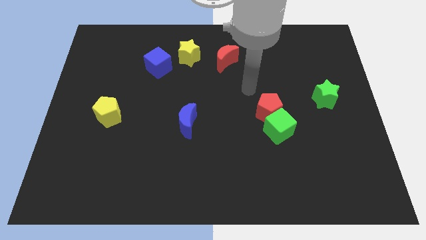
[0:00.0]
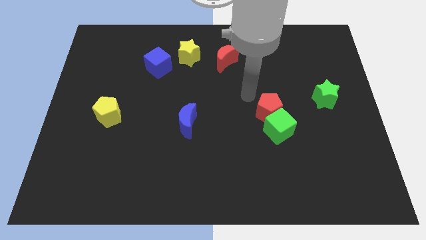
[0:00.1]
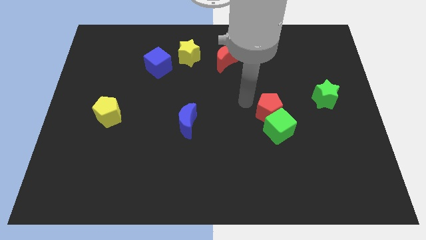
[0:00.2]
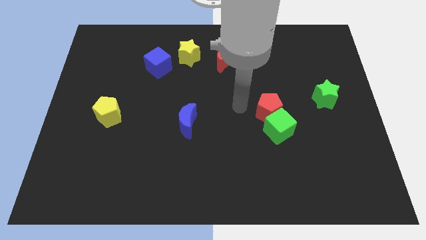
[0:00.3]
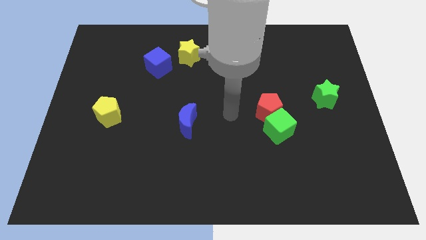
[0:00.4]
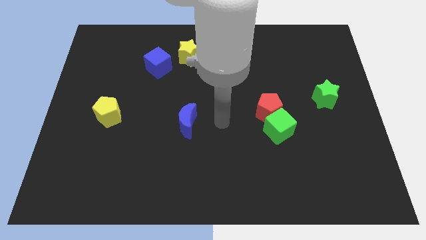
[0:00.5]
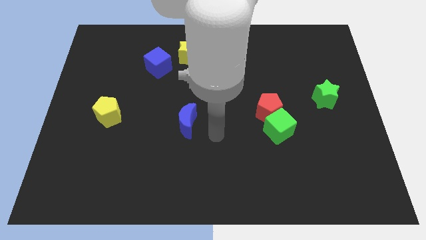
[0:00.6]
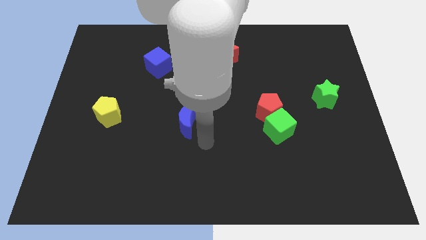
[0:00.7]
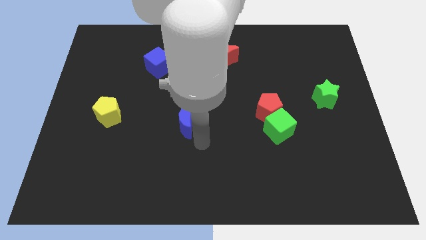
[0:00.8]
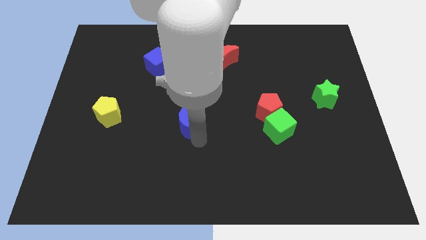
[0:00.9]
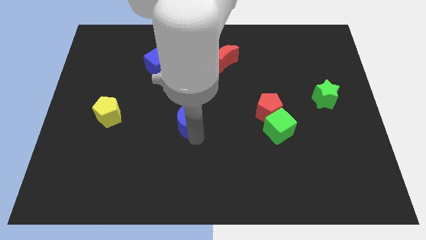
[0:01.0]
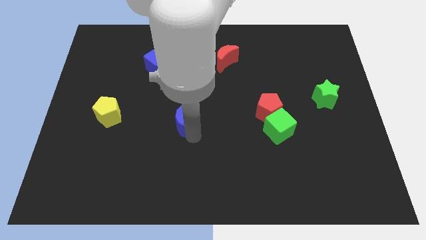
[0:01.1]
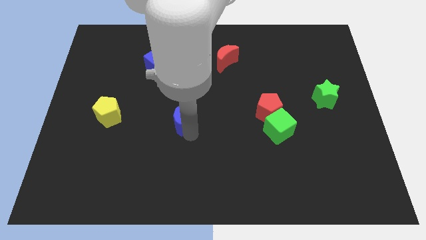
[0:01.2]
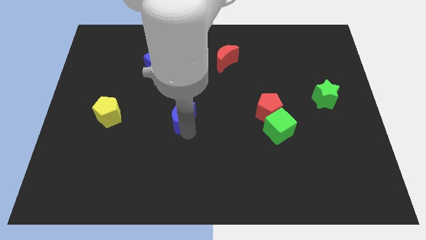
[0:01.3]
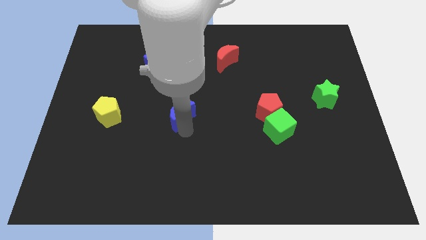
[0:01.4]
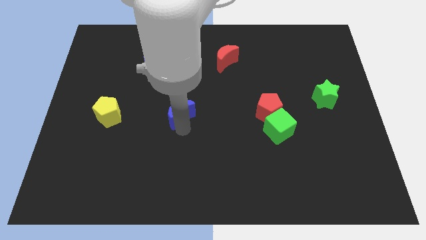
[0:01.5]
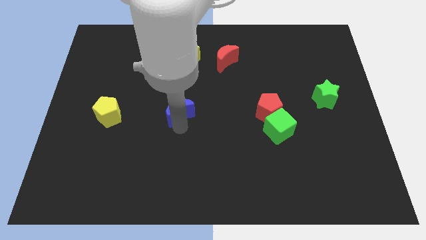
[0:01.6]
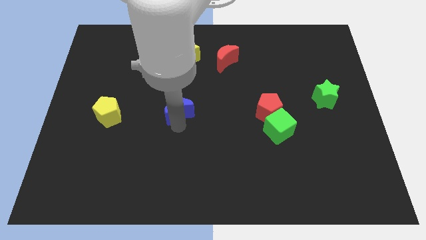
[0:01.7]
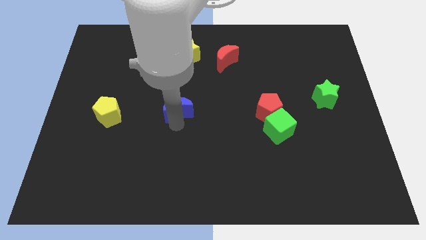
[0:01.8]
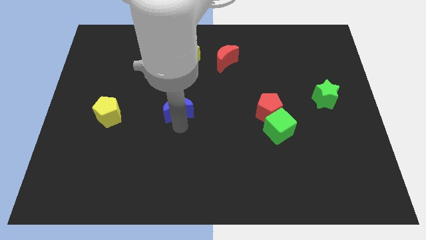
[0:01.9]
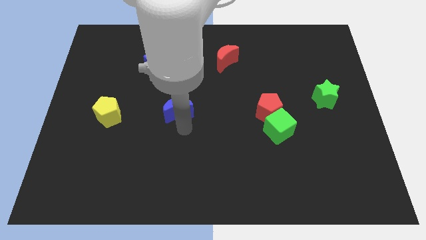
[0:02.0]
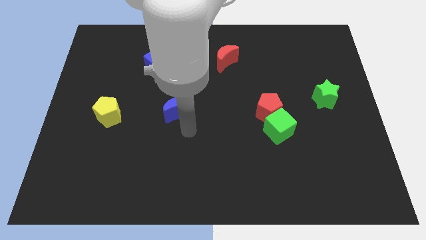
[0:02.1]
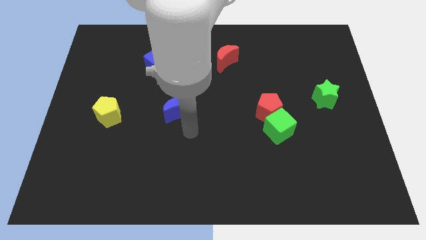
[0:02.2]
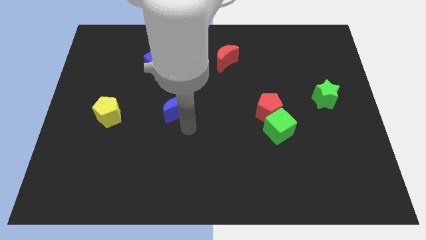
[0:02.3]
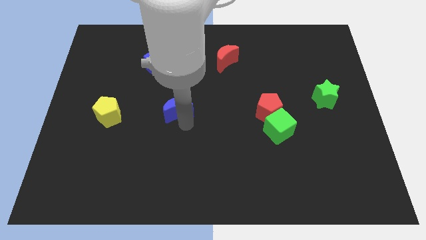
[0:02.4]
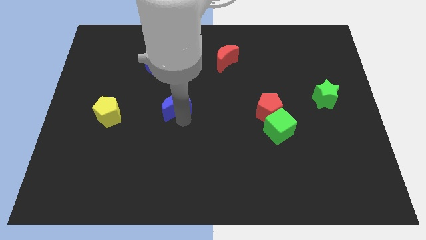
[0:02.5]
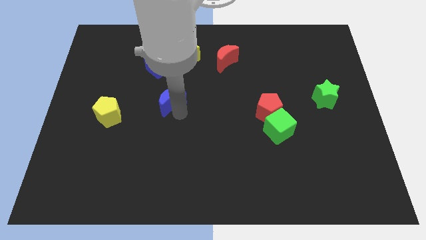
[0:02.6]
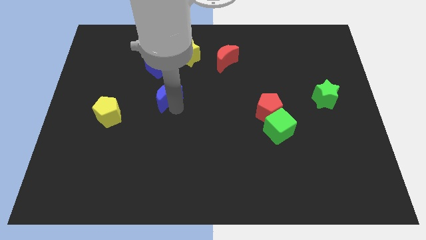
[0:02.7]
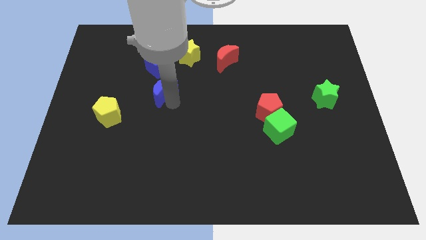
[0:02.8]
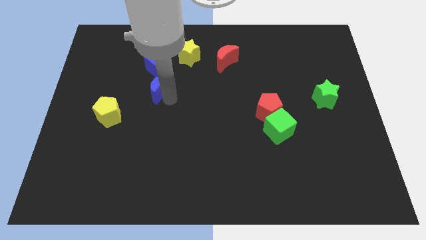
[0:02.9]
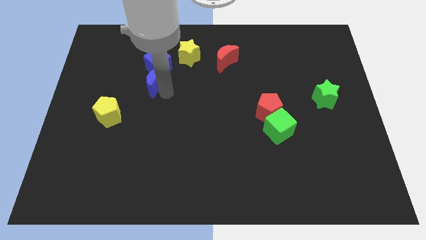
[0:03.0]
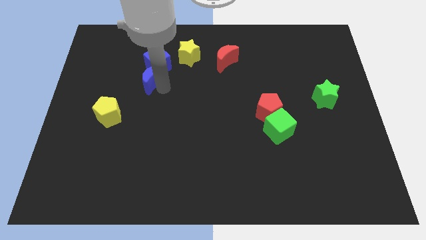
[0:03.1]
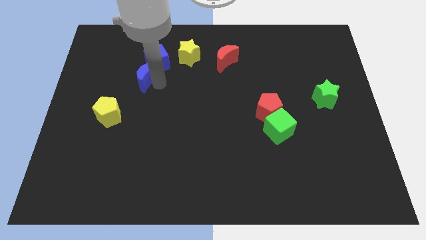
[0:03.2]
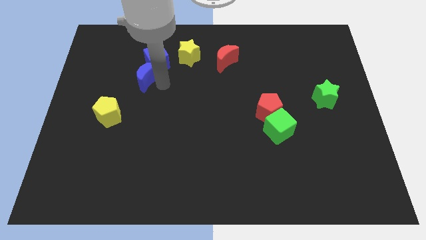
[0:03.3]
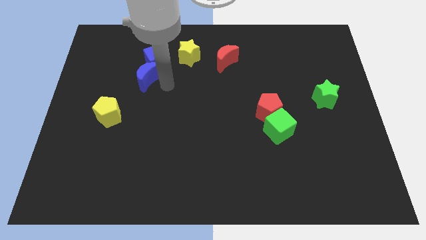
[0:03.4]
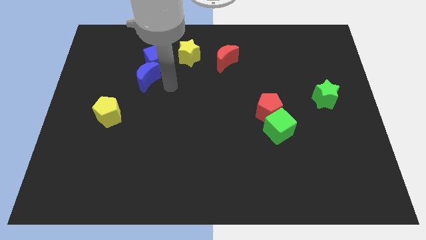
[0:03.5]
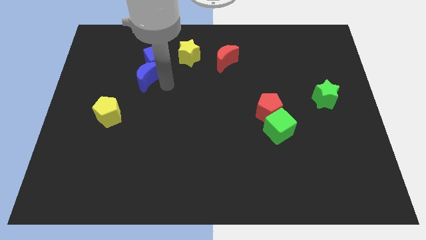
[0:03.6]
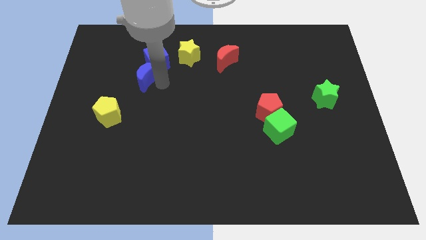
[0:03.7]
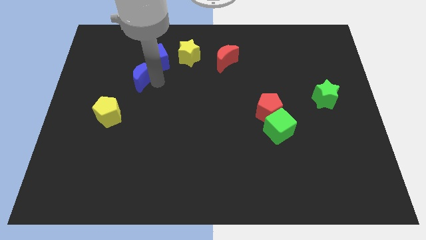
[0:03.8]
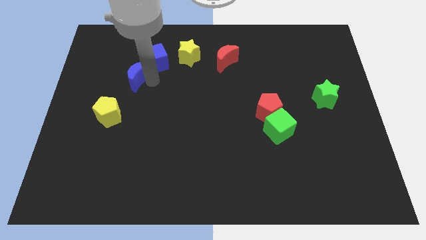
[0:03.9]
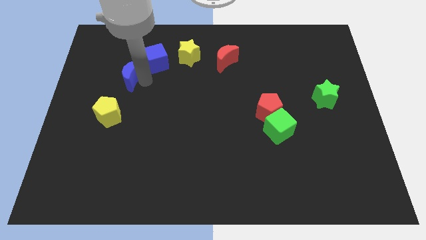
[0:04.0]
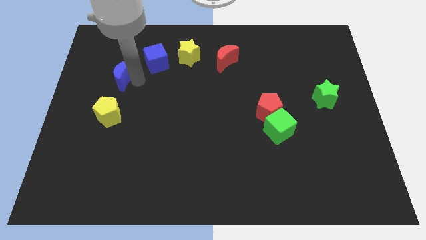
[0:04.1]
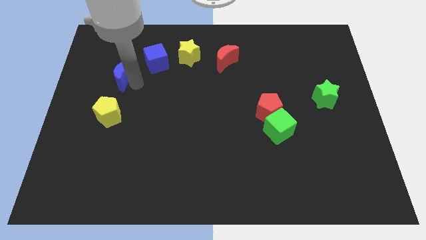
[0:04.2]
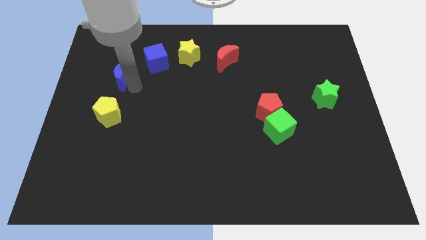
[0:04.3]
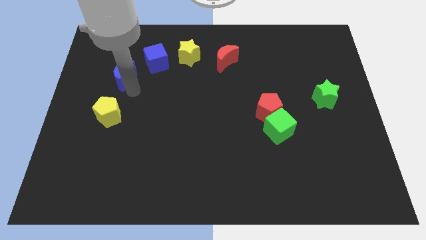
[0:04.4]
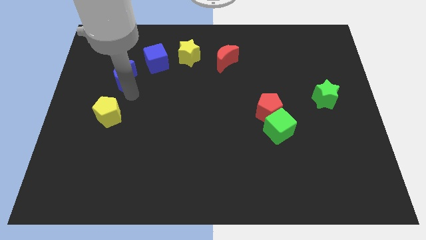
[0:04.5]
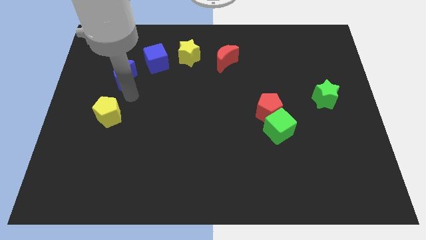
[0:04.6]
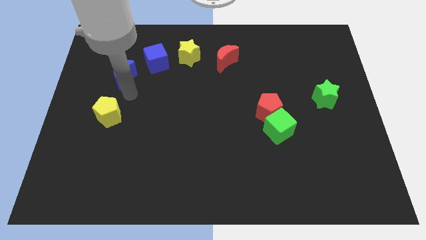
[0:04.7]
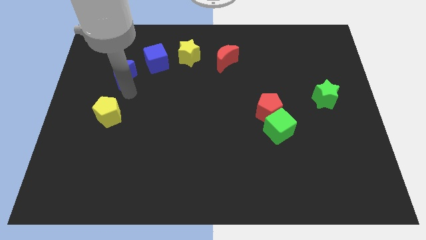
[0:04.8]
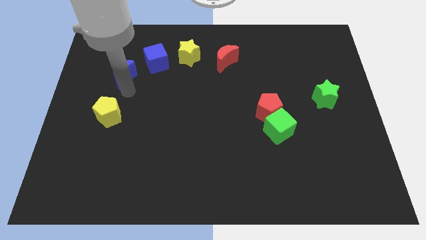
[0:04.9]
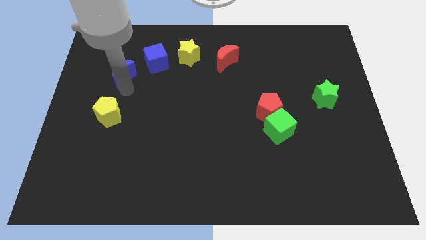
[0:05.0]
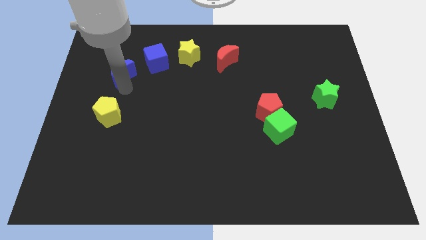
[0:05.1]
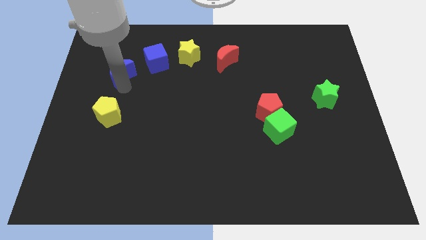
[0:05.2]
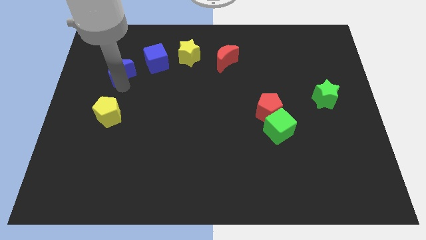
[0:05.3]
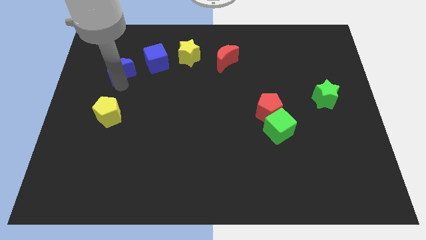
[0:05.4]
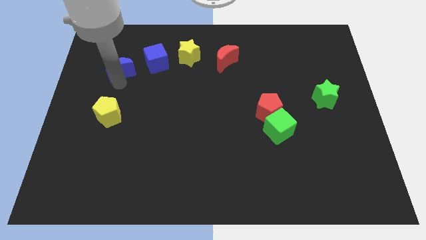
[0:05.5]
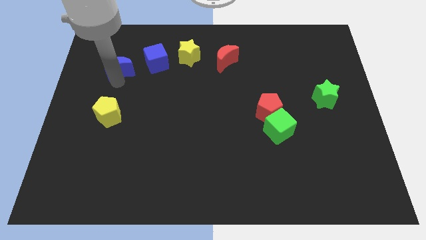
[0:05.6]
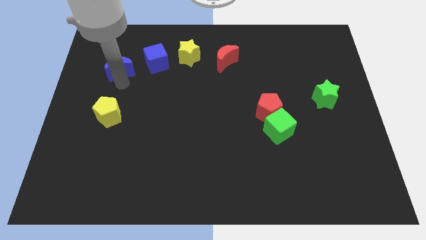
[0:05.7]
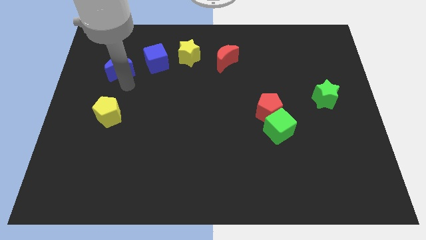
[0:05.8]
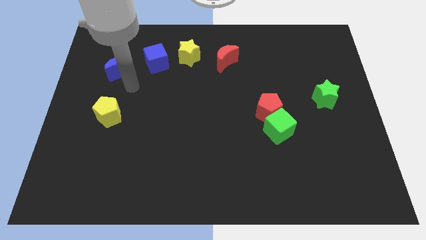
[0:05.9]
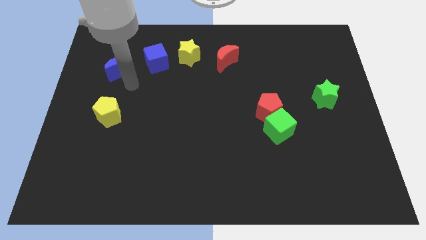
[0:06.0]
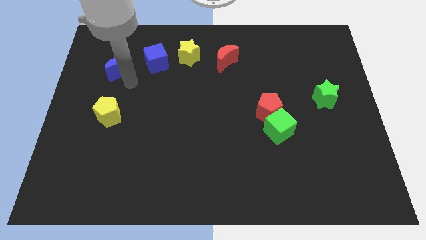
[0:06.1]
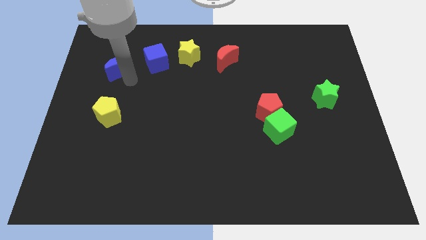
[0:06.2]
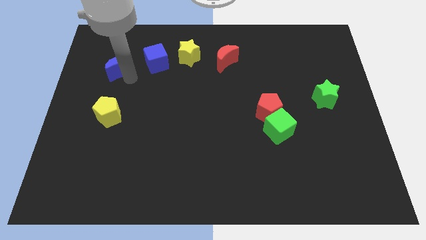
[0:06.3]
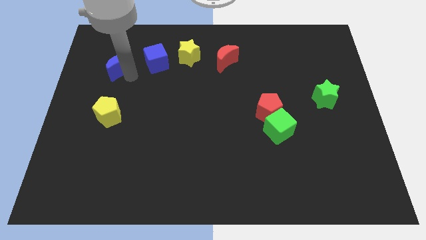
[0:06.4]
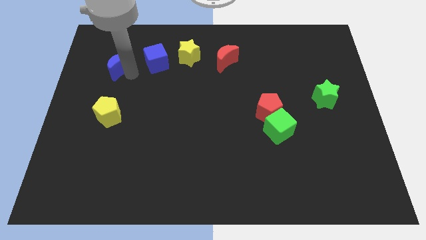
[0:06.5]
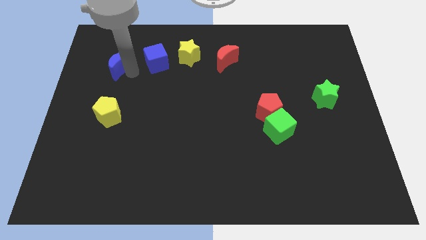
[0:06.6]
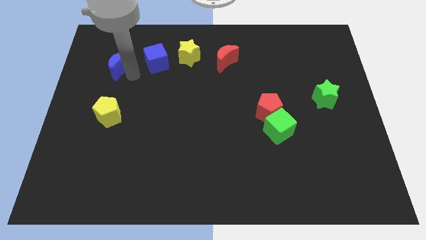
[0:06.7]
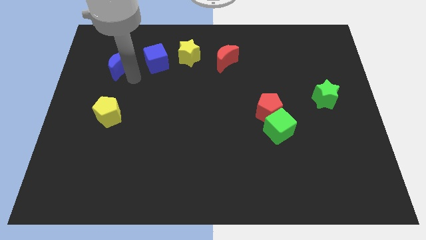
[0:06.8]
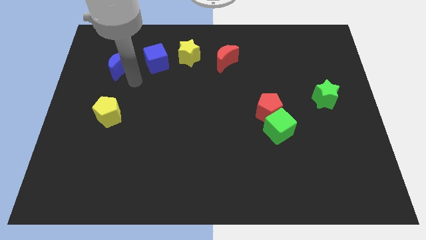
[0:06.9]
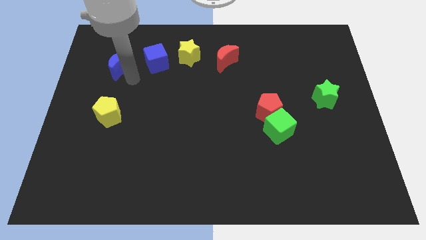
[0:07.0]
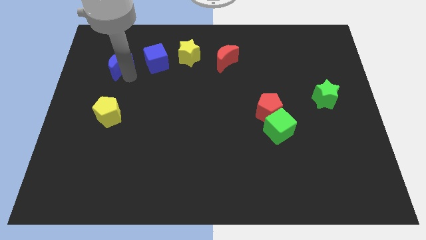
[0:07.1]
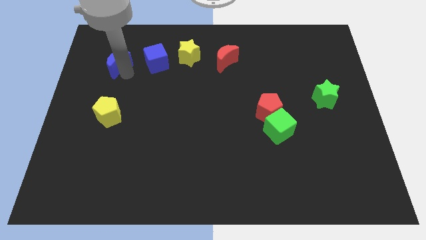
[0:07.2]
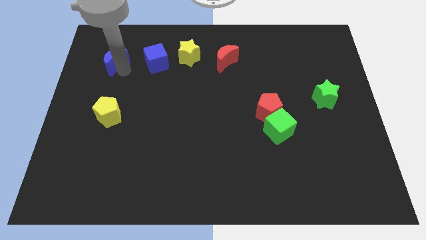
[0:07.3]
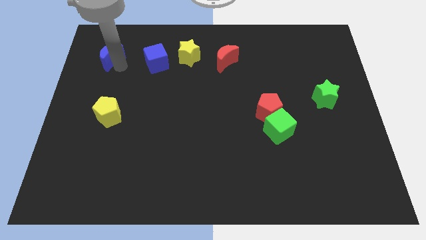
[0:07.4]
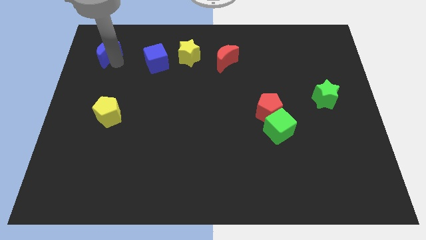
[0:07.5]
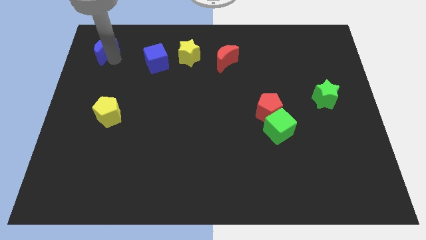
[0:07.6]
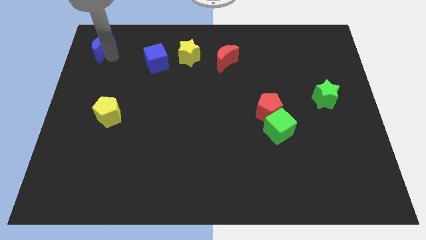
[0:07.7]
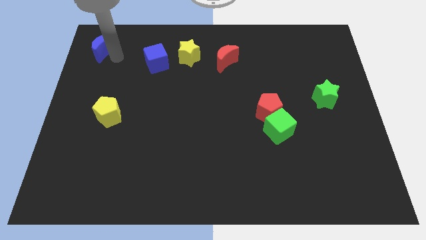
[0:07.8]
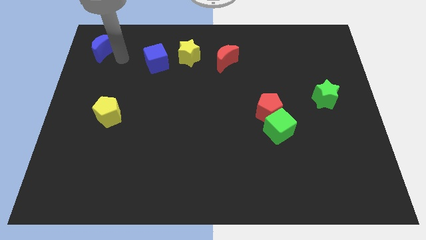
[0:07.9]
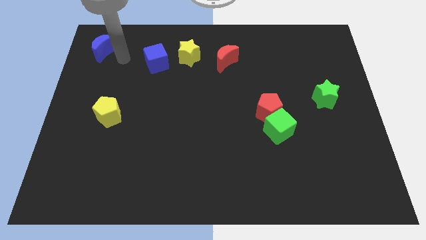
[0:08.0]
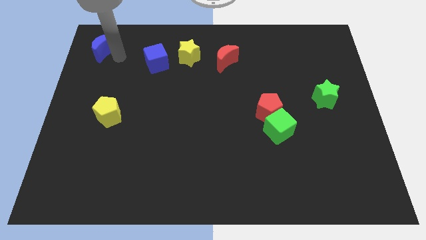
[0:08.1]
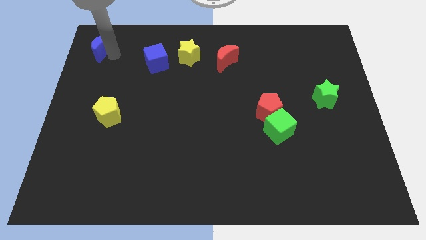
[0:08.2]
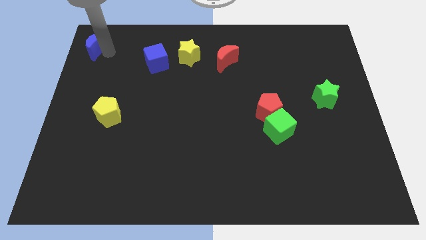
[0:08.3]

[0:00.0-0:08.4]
push the blue moon to the top left
